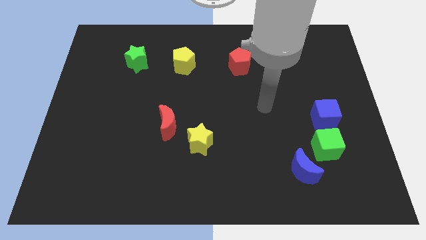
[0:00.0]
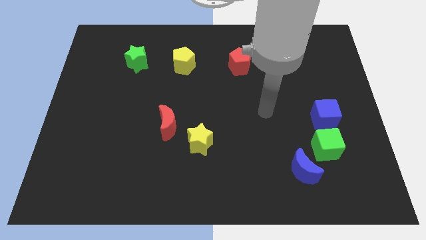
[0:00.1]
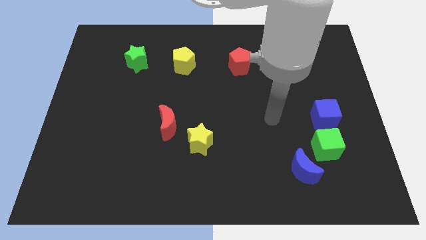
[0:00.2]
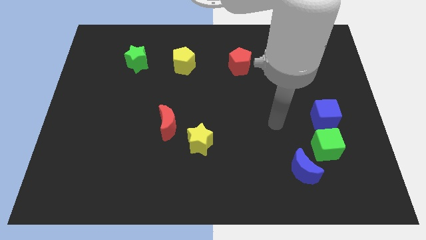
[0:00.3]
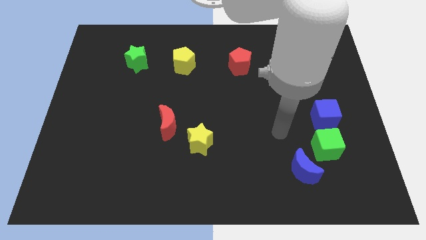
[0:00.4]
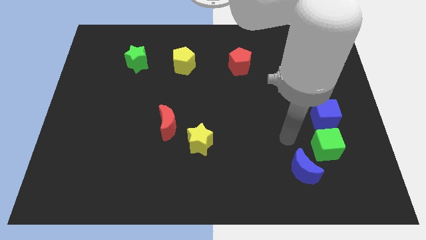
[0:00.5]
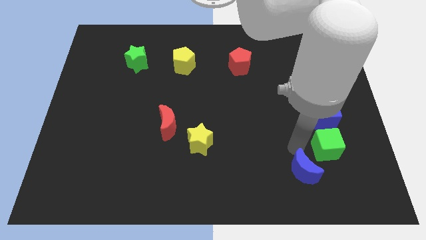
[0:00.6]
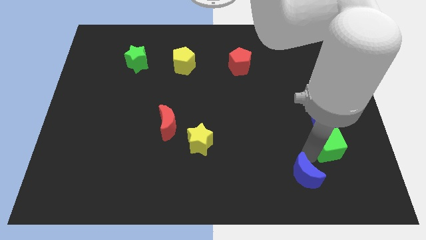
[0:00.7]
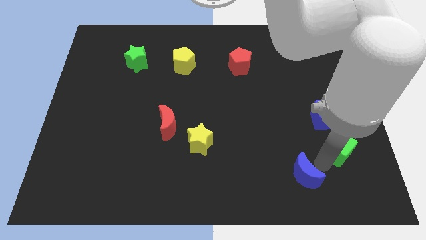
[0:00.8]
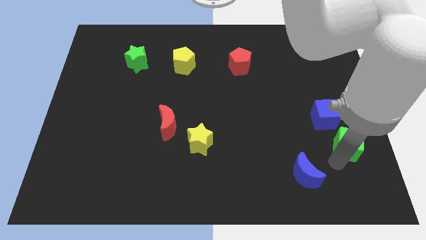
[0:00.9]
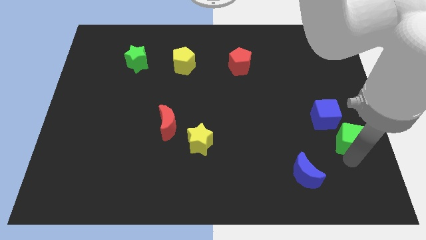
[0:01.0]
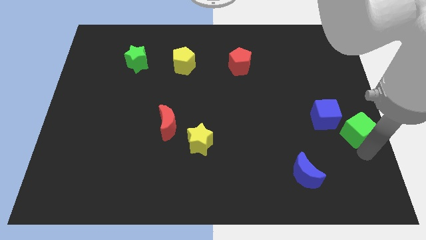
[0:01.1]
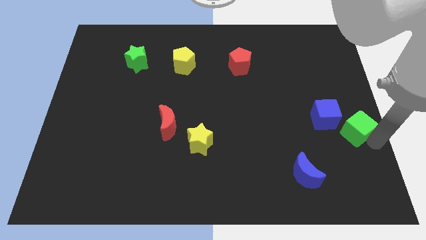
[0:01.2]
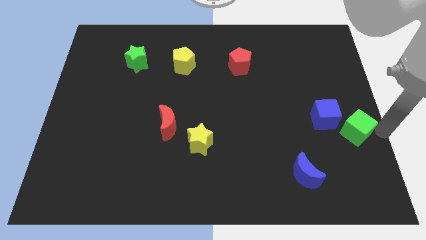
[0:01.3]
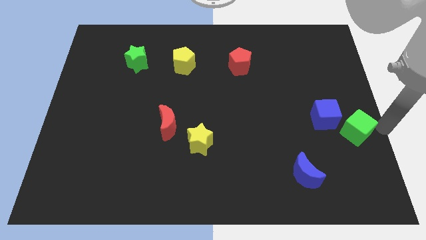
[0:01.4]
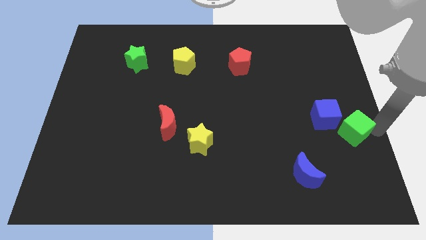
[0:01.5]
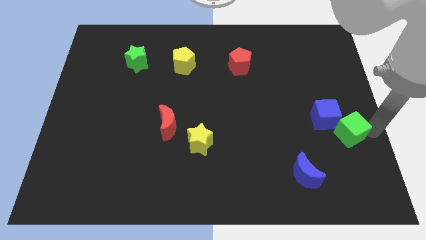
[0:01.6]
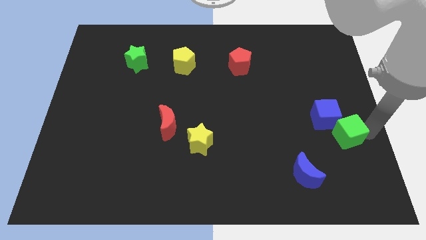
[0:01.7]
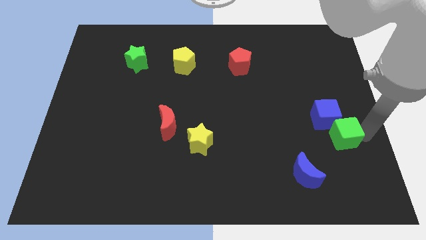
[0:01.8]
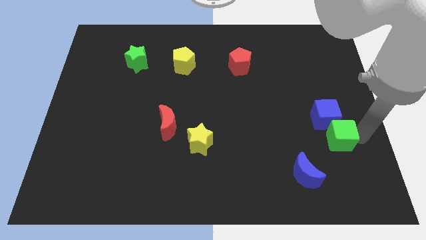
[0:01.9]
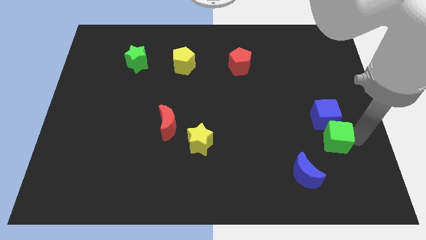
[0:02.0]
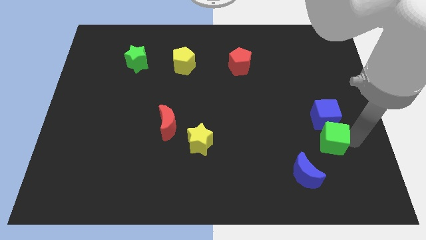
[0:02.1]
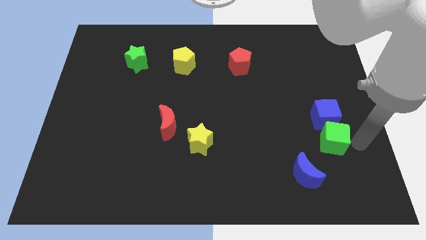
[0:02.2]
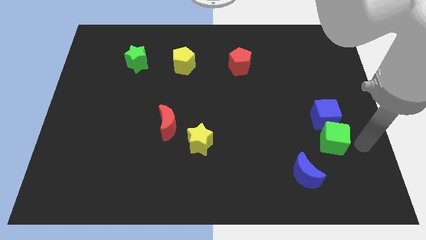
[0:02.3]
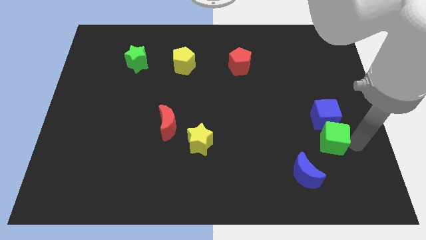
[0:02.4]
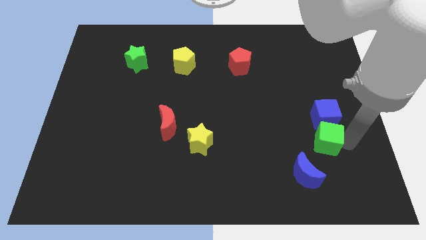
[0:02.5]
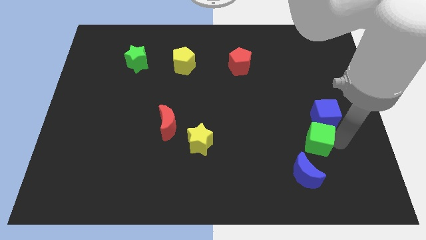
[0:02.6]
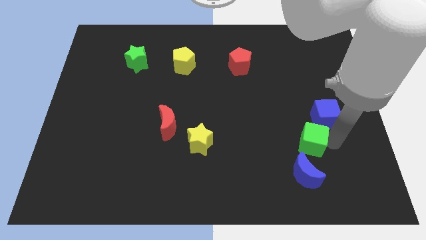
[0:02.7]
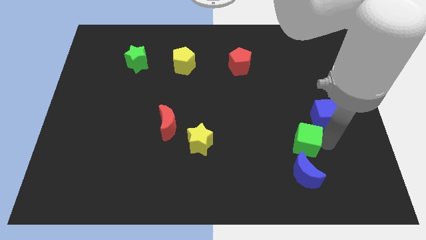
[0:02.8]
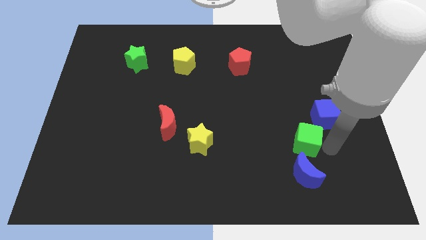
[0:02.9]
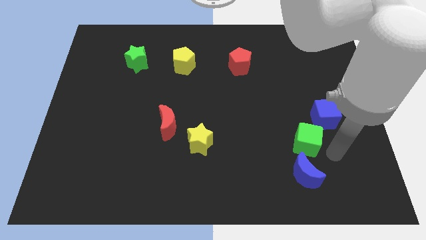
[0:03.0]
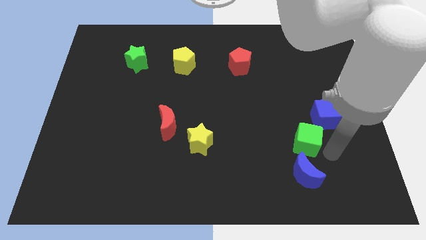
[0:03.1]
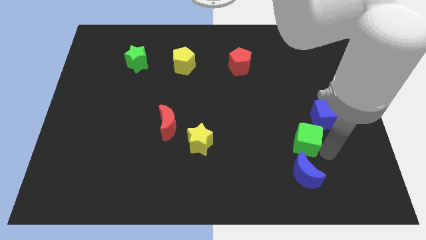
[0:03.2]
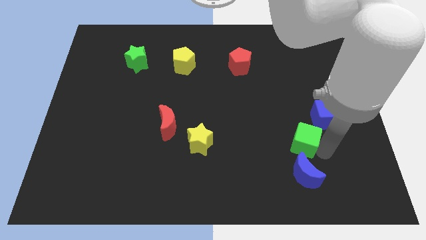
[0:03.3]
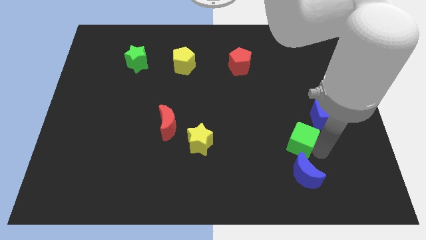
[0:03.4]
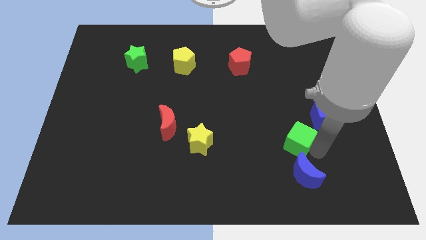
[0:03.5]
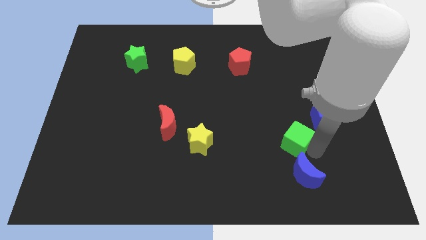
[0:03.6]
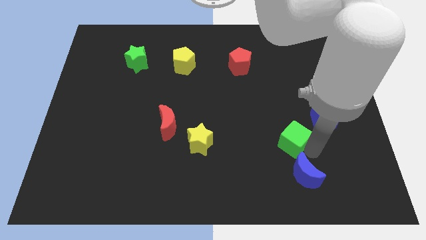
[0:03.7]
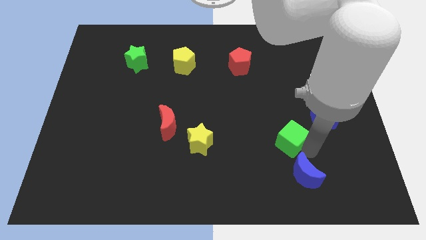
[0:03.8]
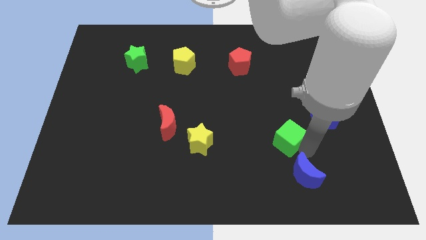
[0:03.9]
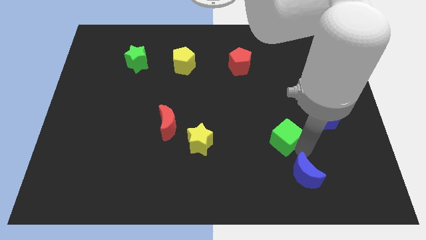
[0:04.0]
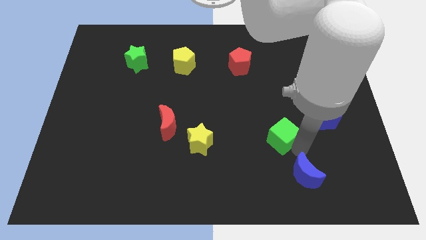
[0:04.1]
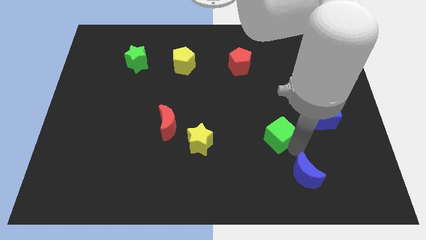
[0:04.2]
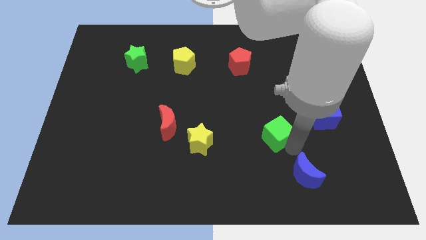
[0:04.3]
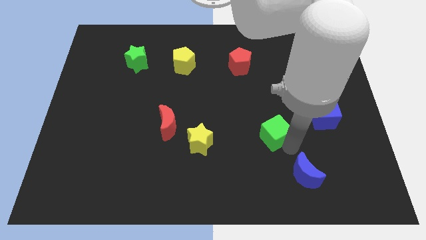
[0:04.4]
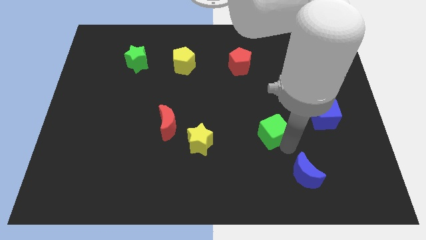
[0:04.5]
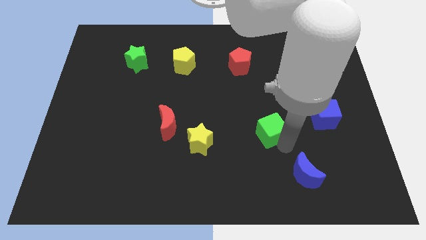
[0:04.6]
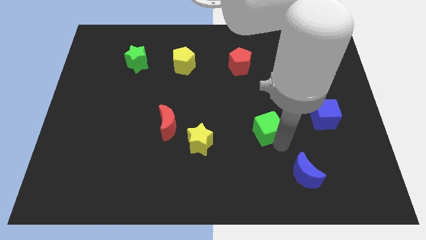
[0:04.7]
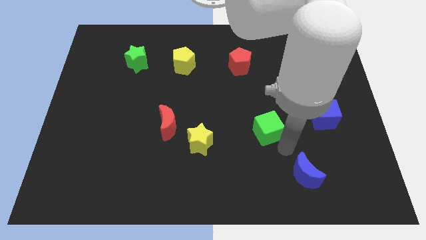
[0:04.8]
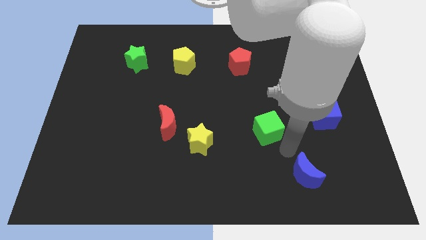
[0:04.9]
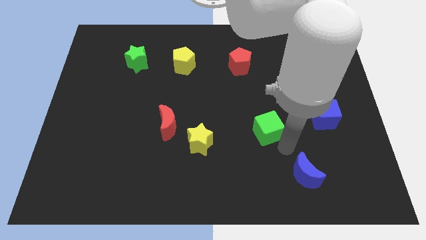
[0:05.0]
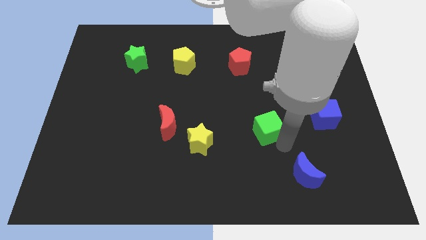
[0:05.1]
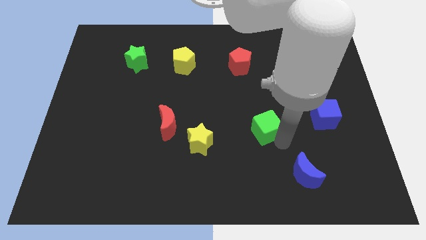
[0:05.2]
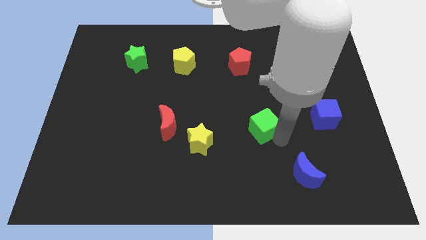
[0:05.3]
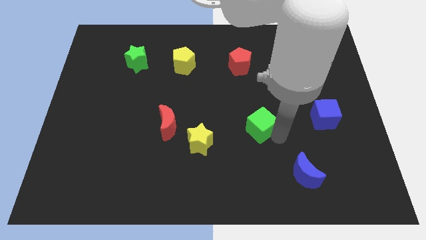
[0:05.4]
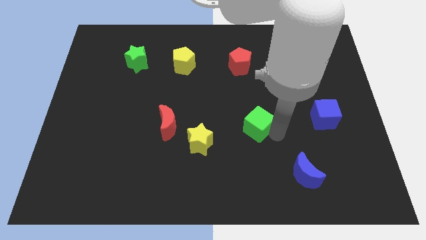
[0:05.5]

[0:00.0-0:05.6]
push the green cube to the middle

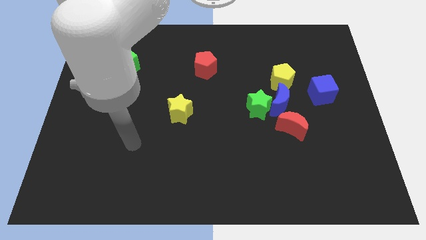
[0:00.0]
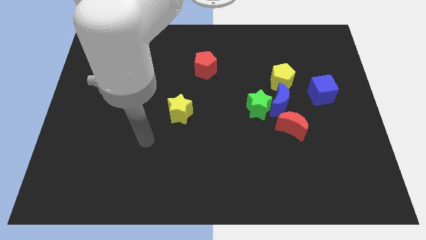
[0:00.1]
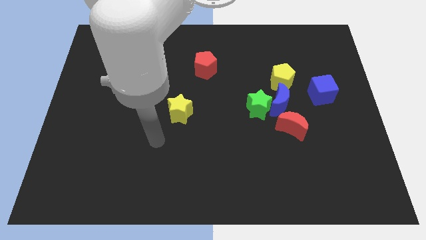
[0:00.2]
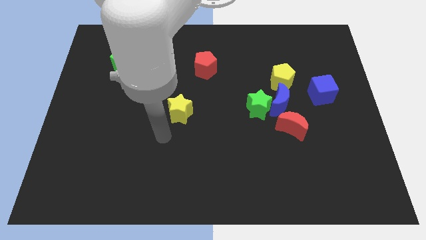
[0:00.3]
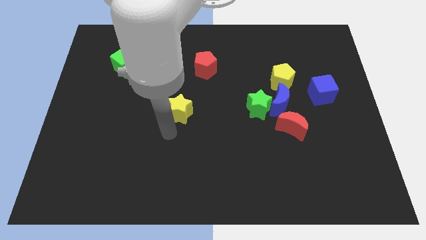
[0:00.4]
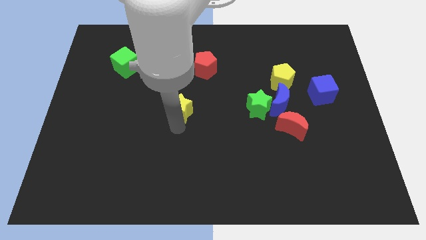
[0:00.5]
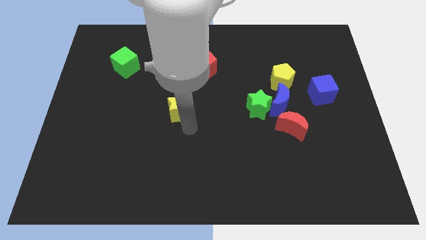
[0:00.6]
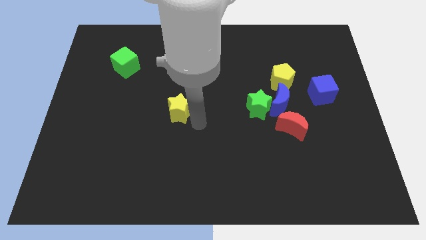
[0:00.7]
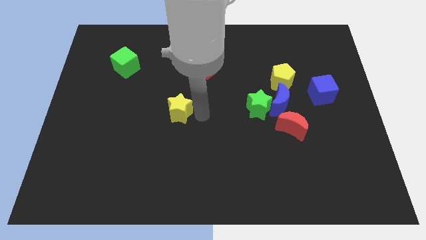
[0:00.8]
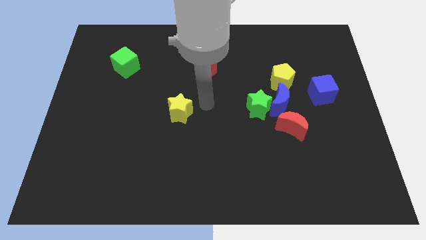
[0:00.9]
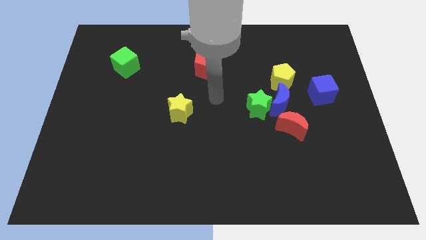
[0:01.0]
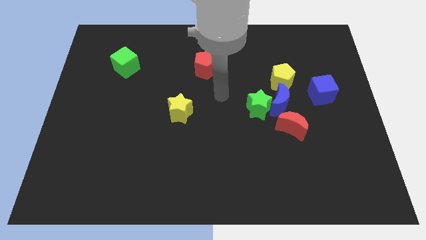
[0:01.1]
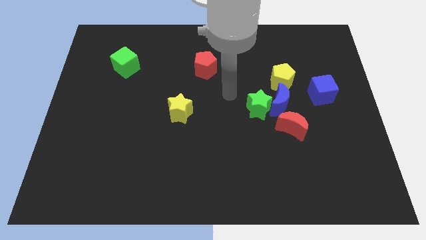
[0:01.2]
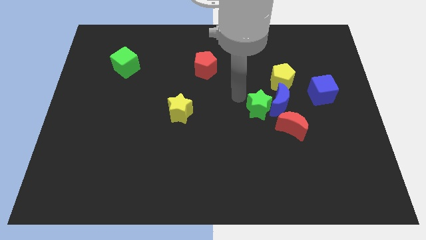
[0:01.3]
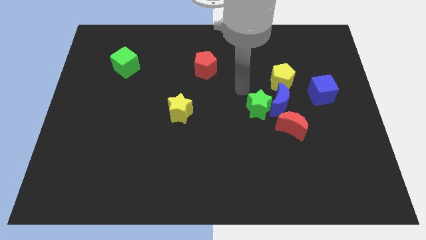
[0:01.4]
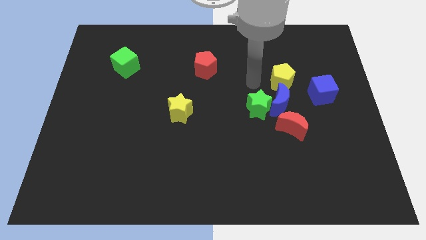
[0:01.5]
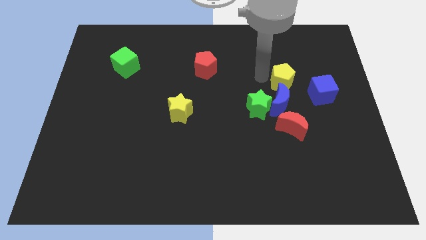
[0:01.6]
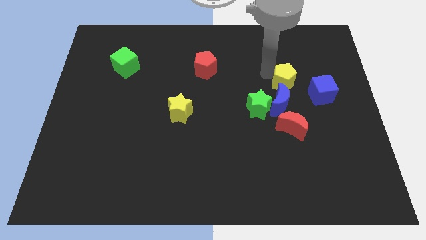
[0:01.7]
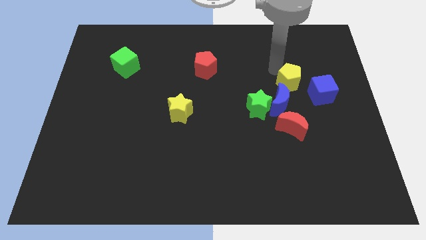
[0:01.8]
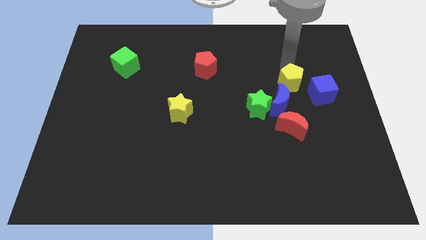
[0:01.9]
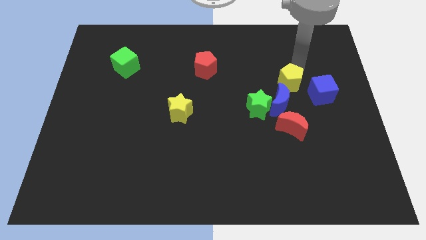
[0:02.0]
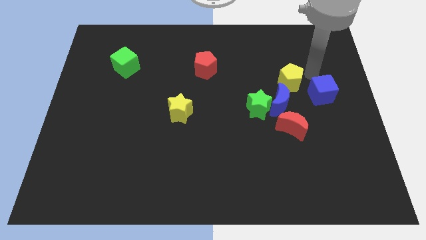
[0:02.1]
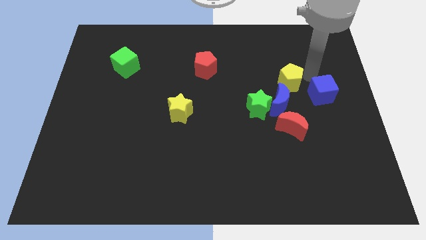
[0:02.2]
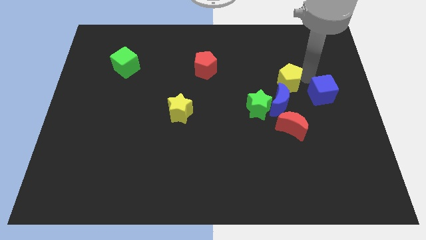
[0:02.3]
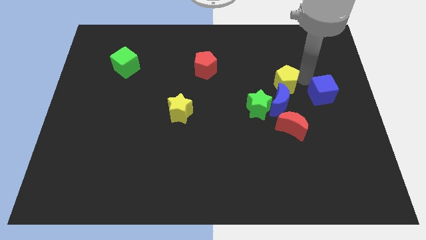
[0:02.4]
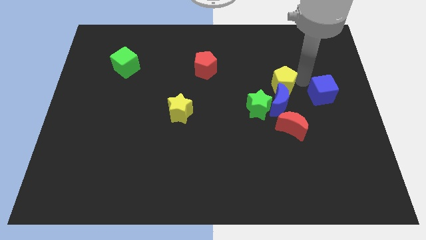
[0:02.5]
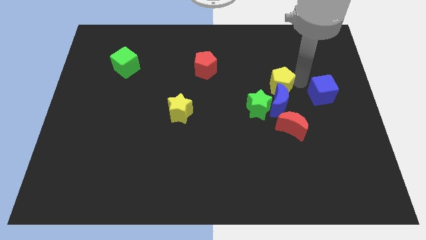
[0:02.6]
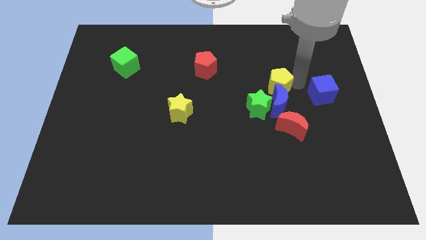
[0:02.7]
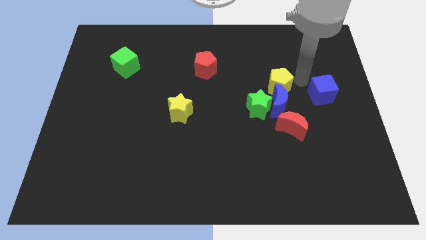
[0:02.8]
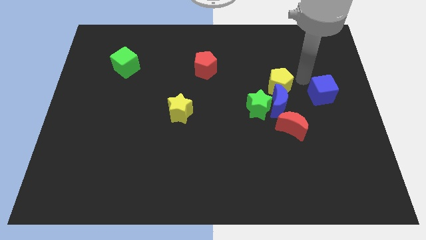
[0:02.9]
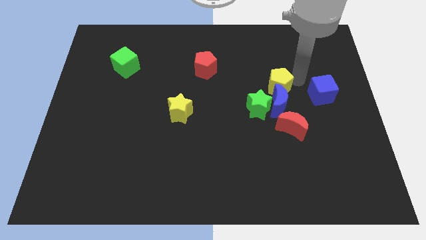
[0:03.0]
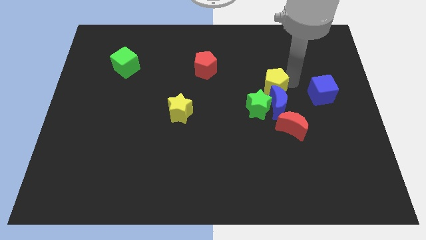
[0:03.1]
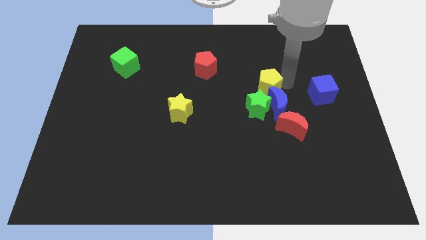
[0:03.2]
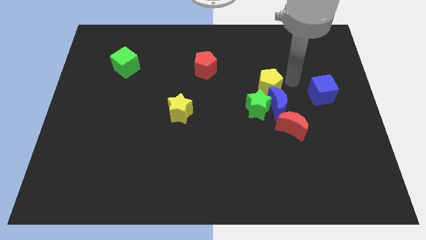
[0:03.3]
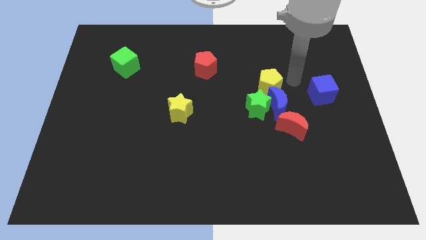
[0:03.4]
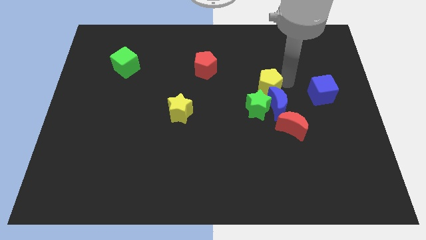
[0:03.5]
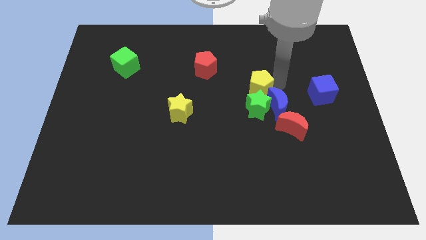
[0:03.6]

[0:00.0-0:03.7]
push the yellow pentagon to the center of the board
